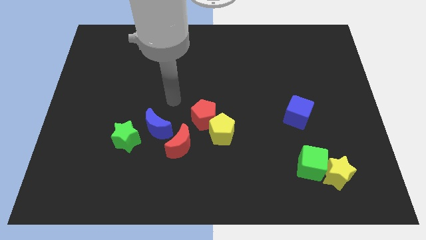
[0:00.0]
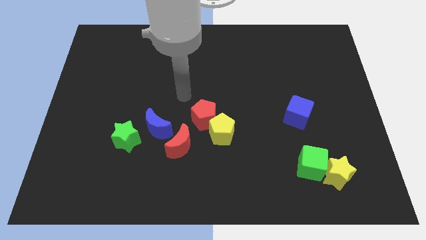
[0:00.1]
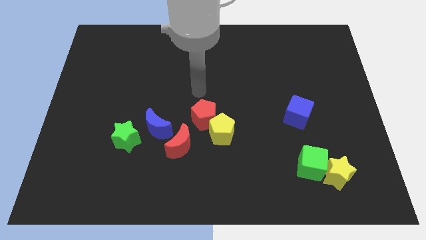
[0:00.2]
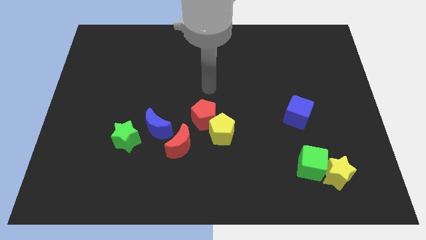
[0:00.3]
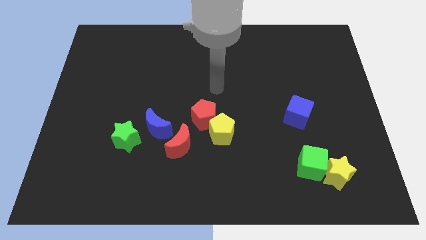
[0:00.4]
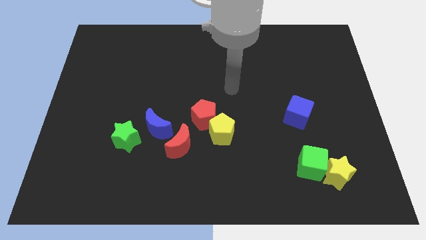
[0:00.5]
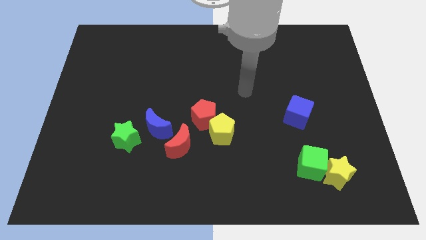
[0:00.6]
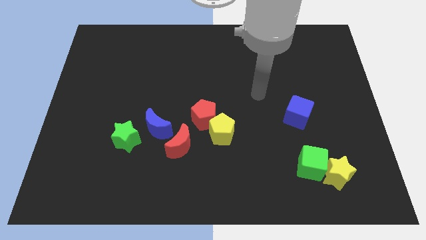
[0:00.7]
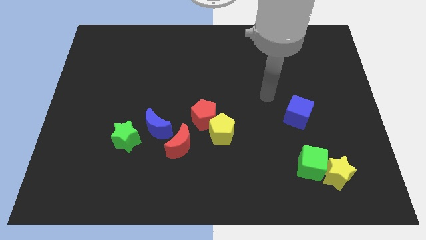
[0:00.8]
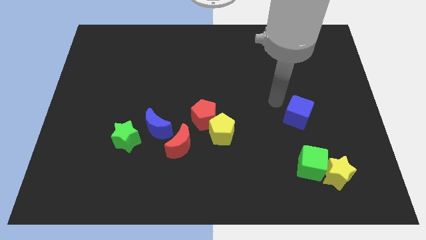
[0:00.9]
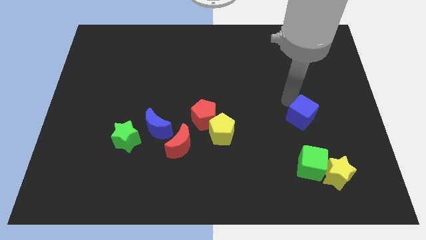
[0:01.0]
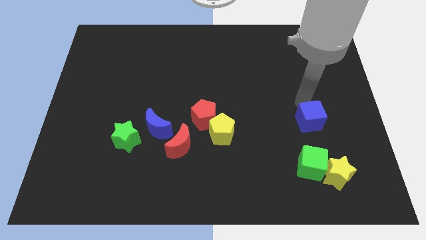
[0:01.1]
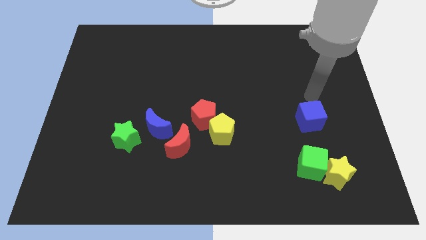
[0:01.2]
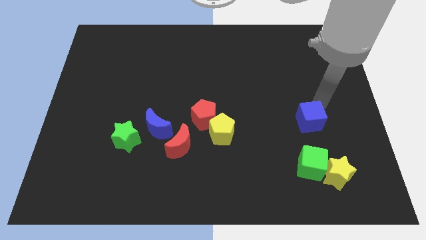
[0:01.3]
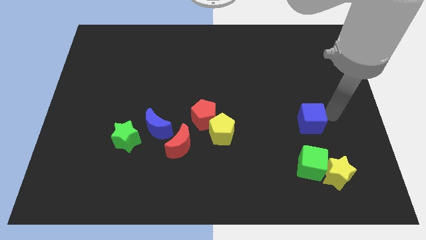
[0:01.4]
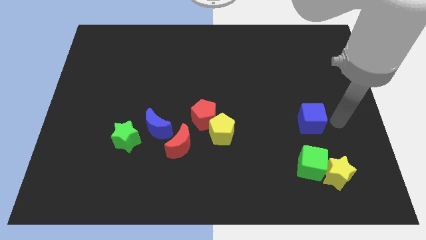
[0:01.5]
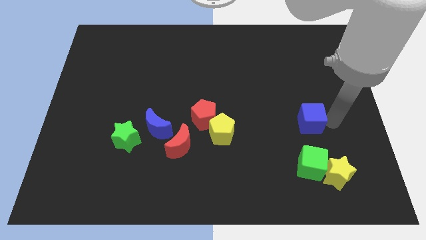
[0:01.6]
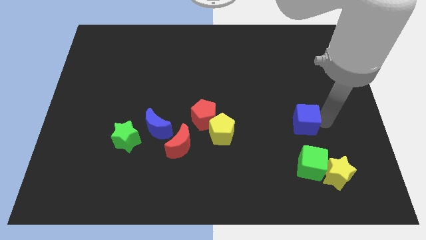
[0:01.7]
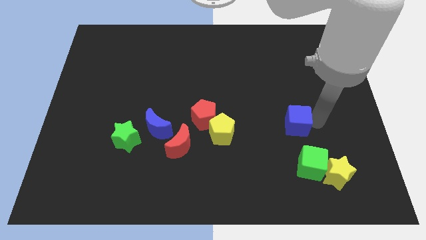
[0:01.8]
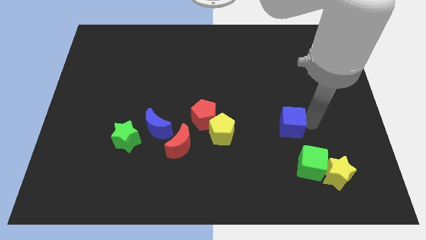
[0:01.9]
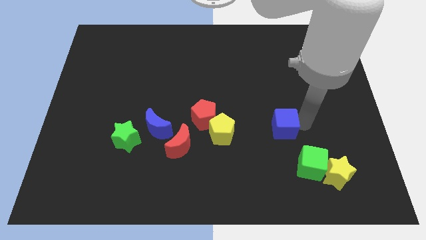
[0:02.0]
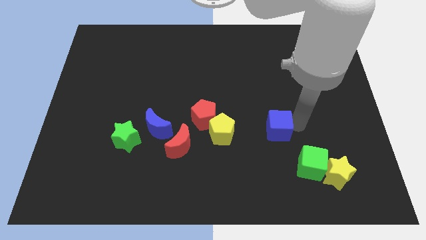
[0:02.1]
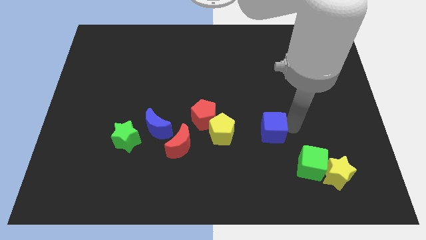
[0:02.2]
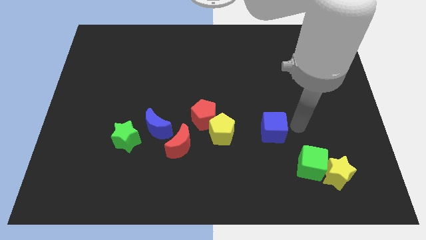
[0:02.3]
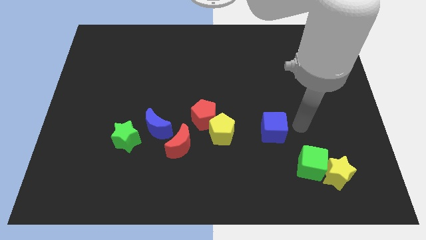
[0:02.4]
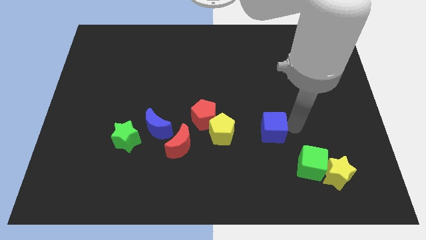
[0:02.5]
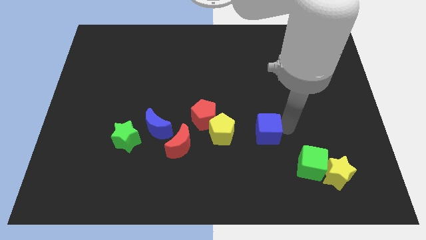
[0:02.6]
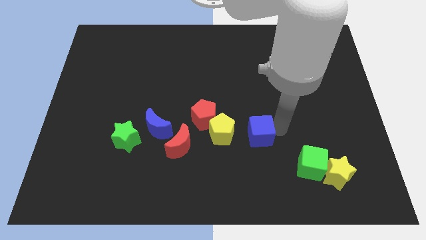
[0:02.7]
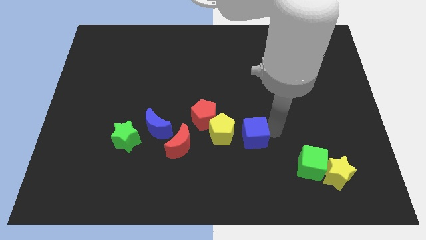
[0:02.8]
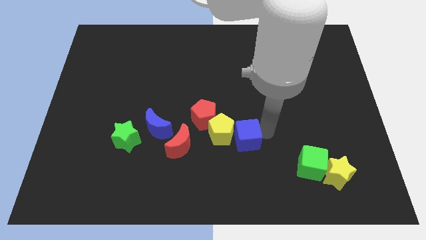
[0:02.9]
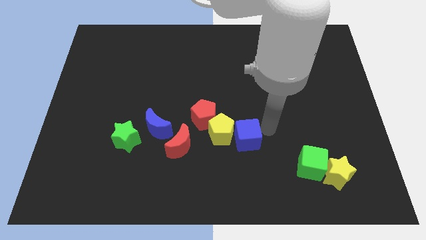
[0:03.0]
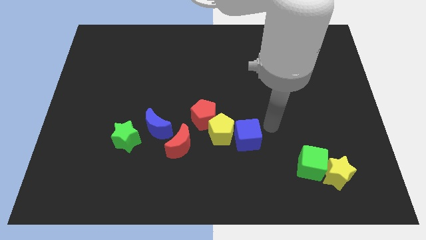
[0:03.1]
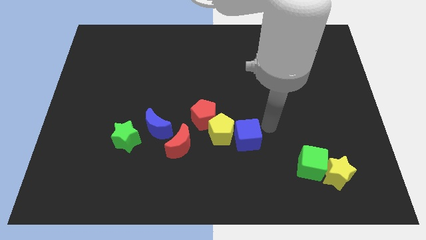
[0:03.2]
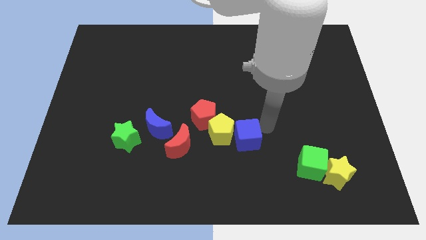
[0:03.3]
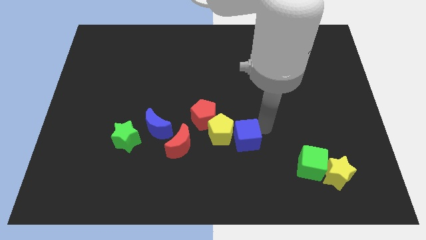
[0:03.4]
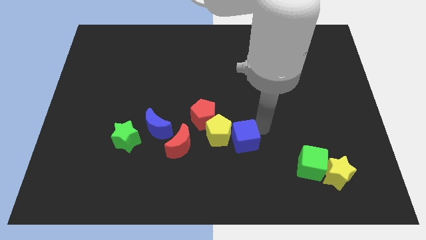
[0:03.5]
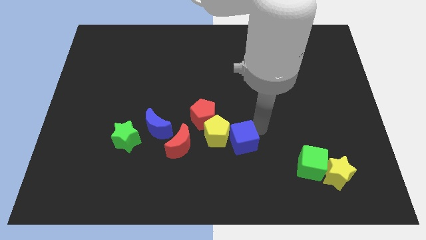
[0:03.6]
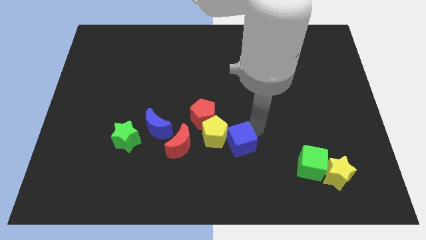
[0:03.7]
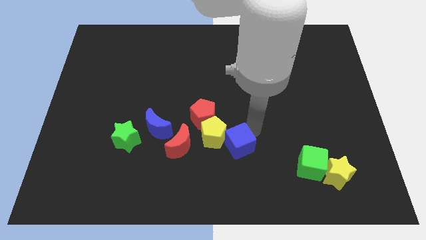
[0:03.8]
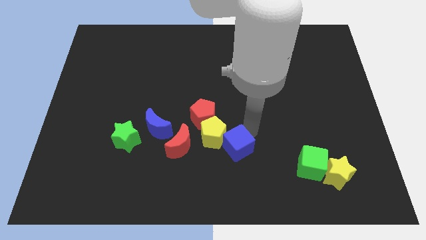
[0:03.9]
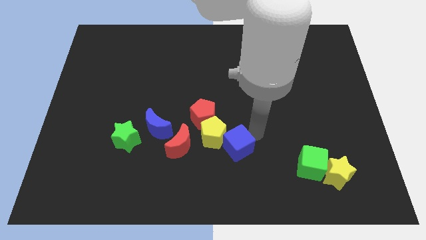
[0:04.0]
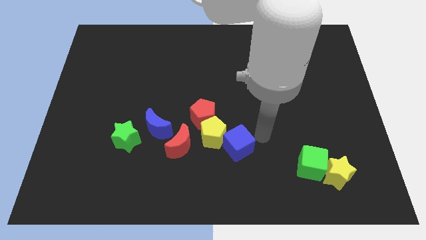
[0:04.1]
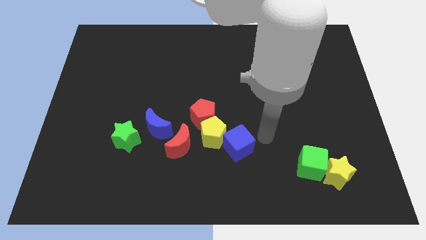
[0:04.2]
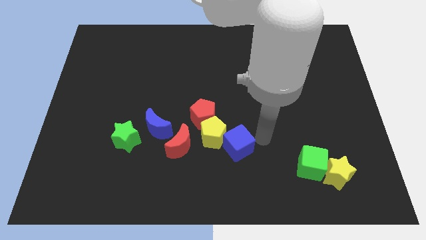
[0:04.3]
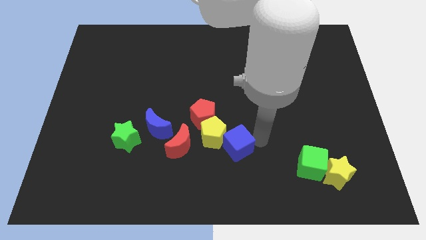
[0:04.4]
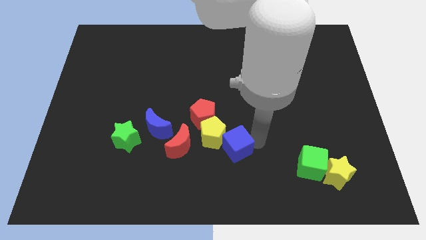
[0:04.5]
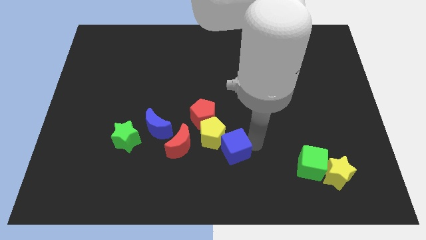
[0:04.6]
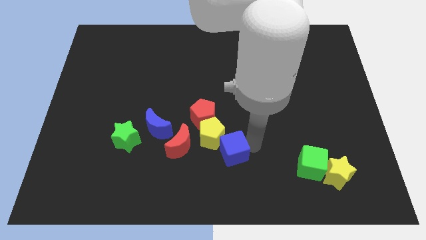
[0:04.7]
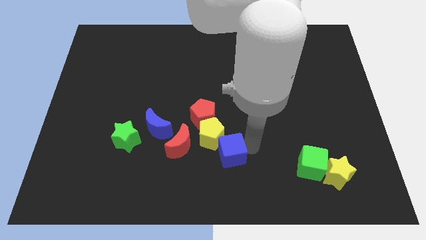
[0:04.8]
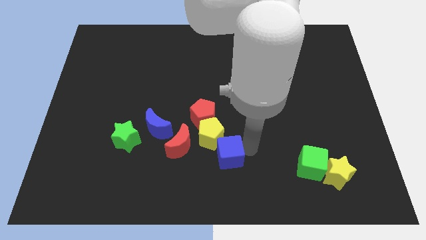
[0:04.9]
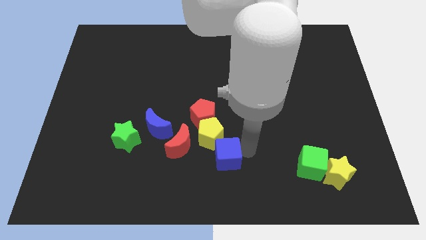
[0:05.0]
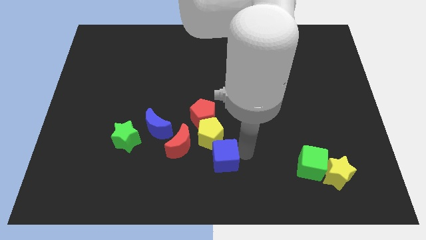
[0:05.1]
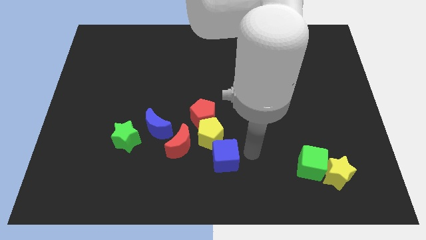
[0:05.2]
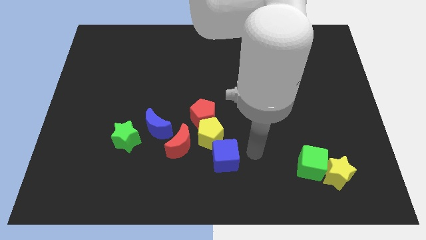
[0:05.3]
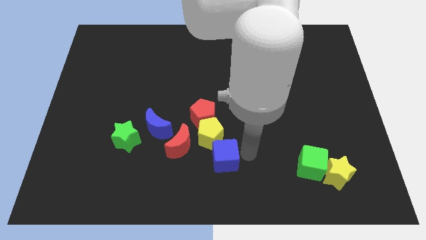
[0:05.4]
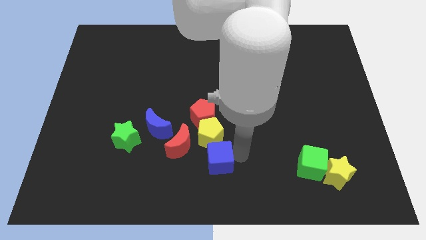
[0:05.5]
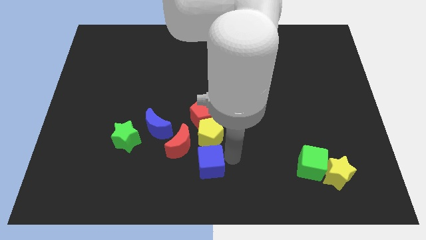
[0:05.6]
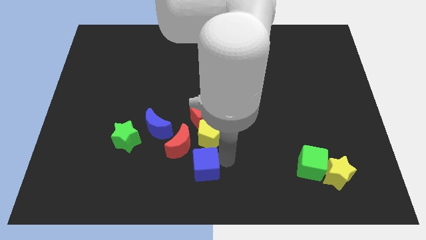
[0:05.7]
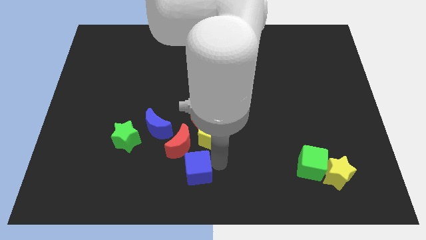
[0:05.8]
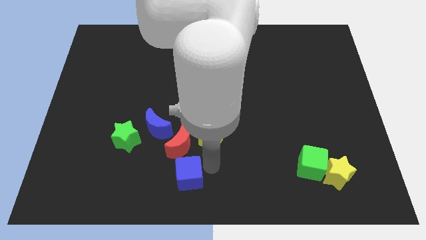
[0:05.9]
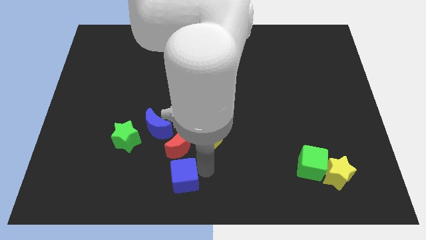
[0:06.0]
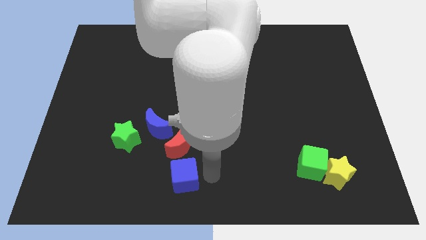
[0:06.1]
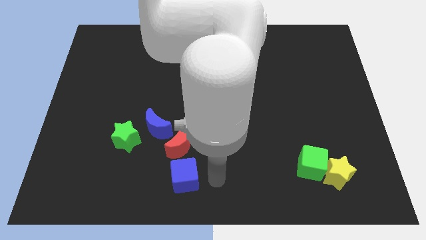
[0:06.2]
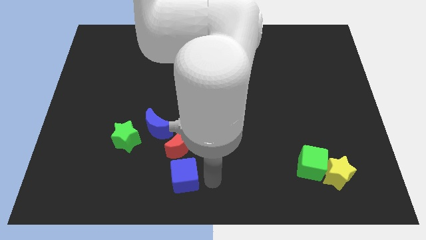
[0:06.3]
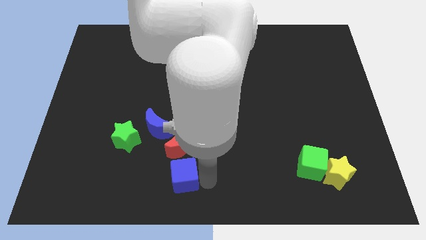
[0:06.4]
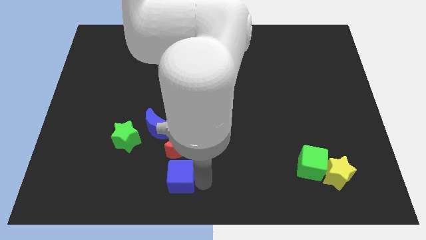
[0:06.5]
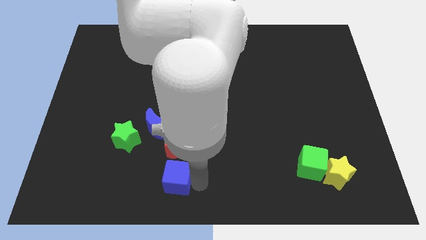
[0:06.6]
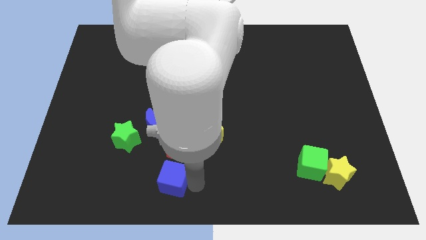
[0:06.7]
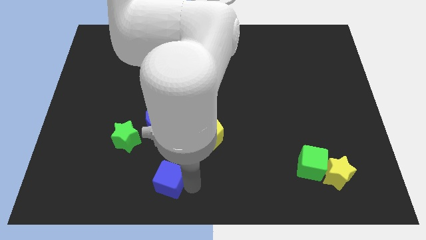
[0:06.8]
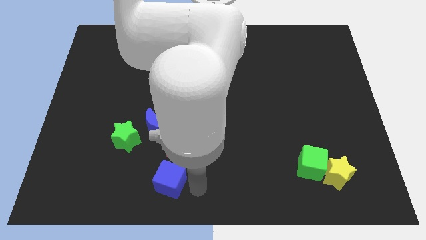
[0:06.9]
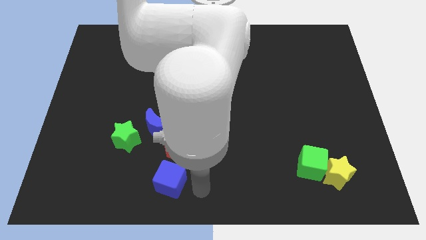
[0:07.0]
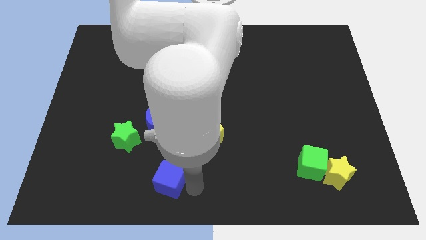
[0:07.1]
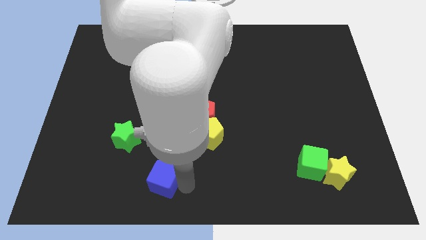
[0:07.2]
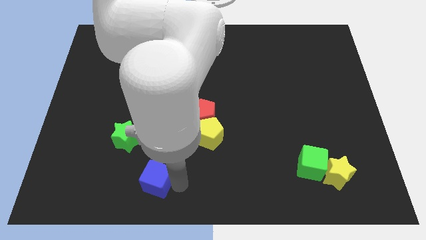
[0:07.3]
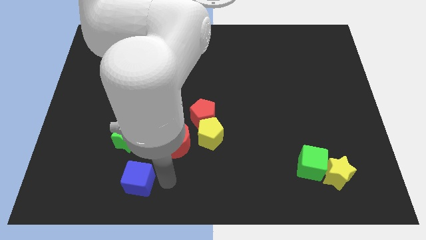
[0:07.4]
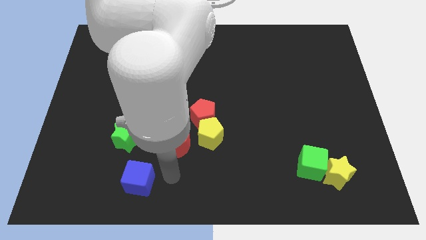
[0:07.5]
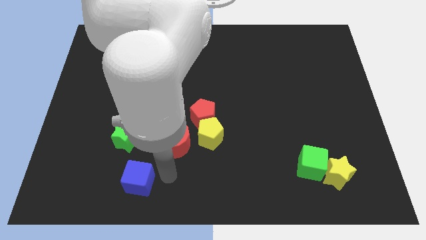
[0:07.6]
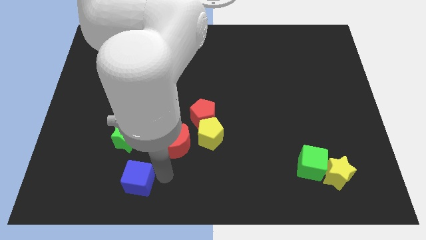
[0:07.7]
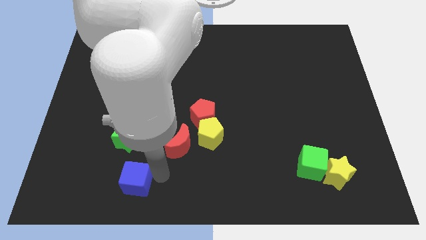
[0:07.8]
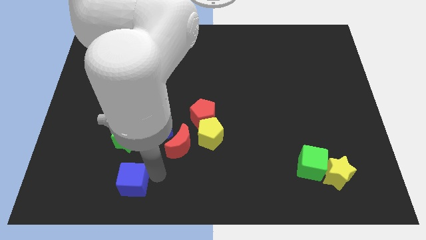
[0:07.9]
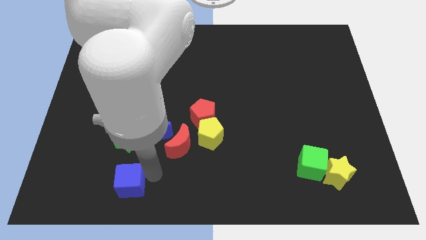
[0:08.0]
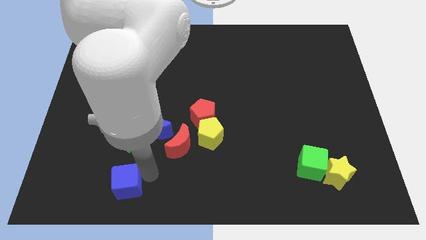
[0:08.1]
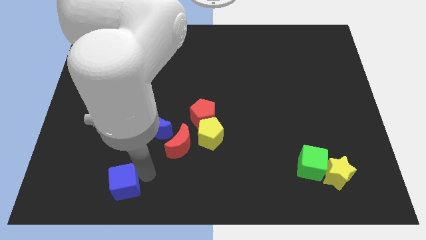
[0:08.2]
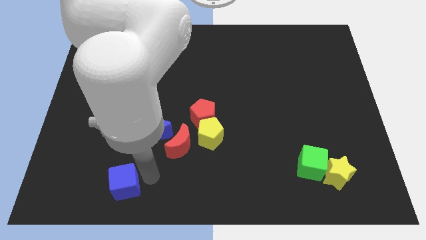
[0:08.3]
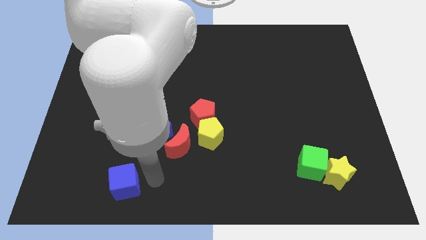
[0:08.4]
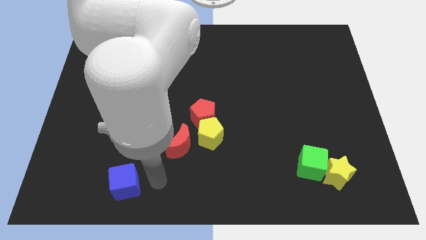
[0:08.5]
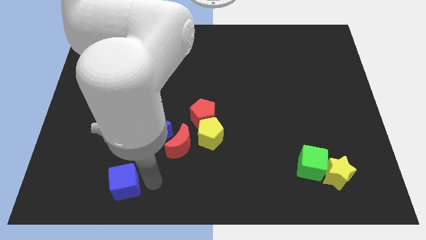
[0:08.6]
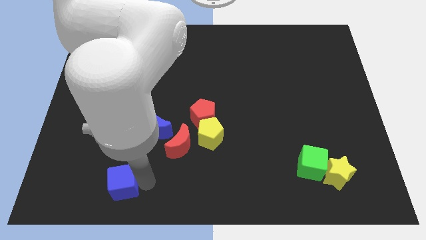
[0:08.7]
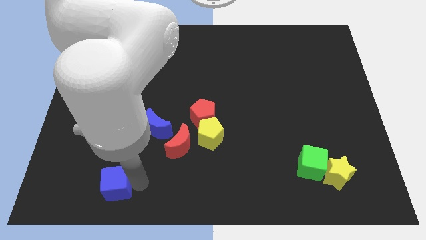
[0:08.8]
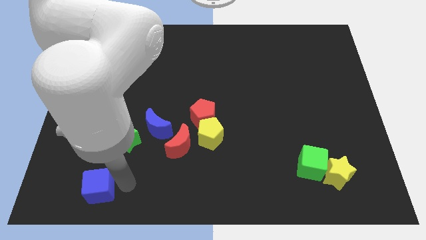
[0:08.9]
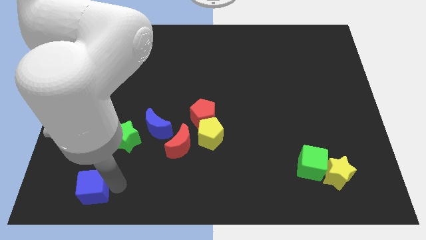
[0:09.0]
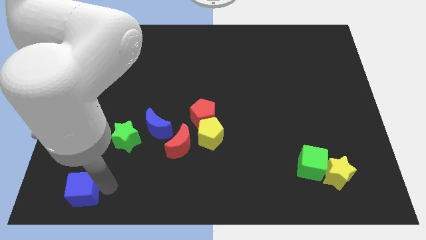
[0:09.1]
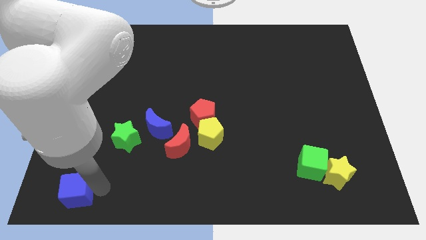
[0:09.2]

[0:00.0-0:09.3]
slide the blue cube to the bottom left corner
